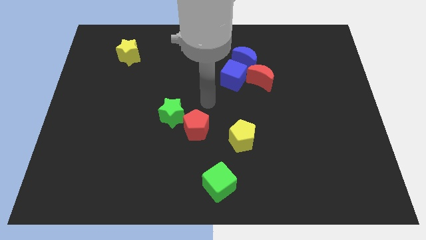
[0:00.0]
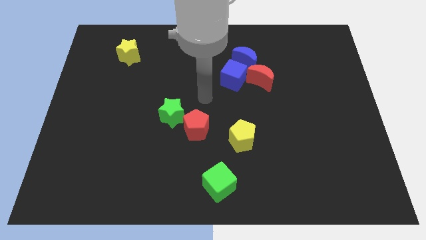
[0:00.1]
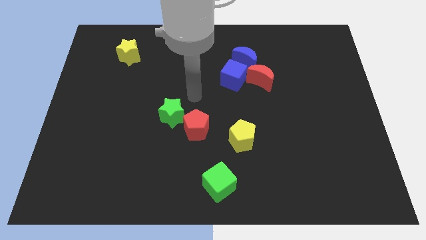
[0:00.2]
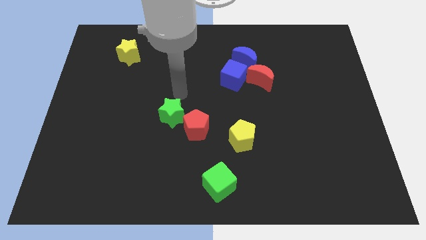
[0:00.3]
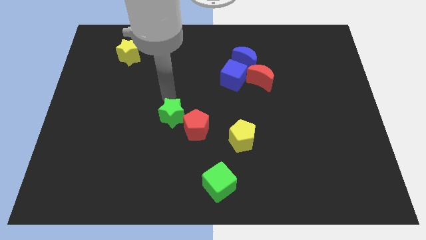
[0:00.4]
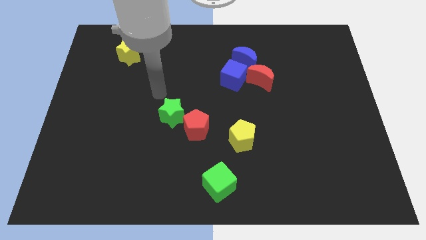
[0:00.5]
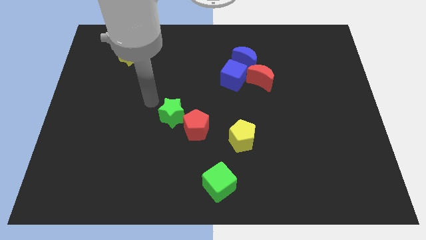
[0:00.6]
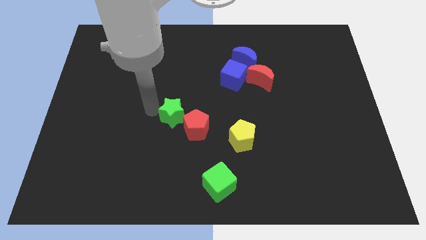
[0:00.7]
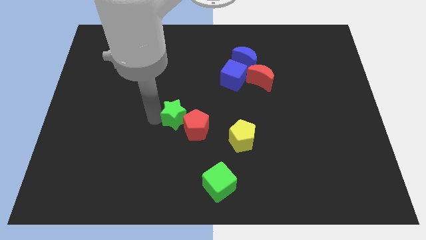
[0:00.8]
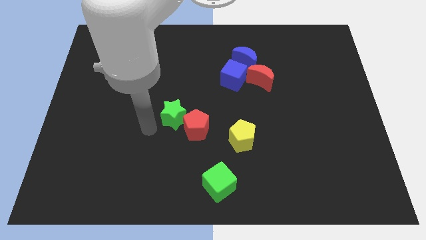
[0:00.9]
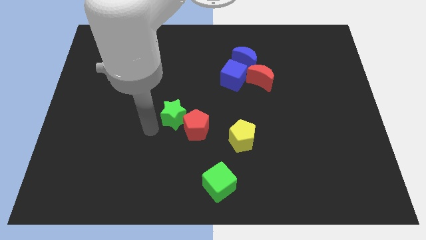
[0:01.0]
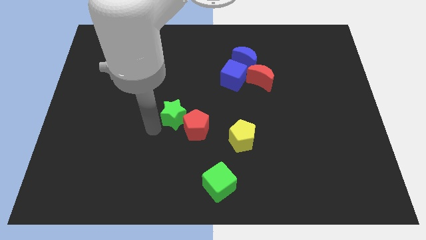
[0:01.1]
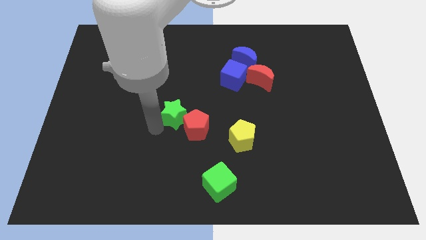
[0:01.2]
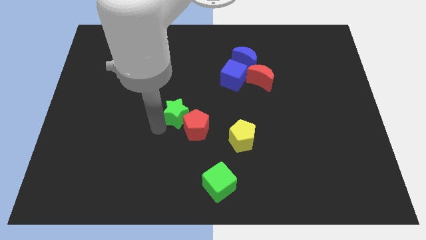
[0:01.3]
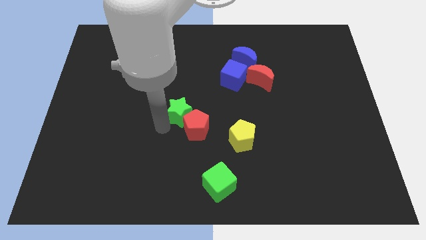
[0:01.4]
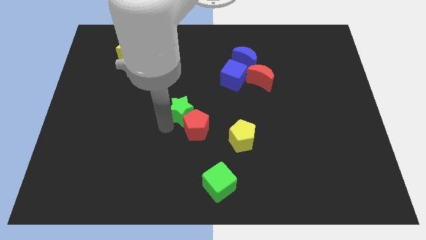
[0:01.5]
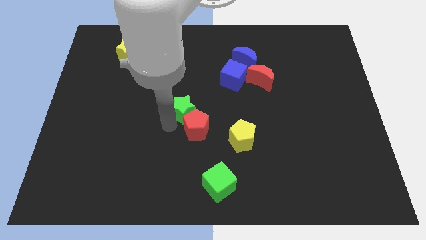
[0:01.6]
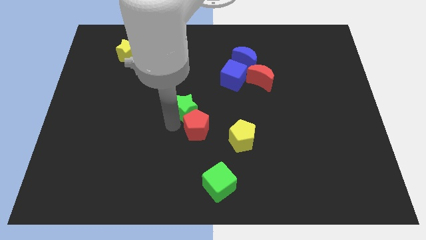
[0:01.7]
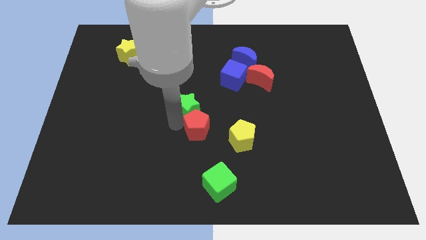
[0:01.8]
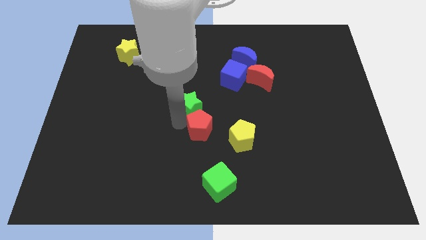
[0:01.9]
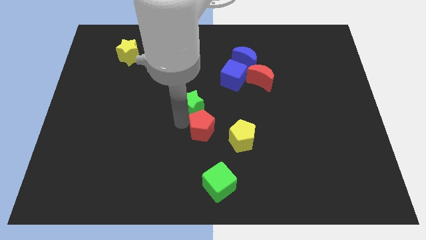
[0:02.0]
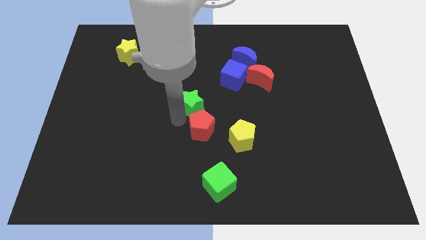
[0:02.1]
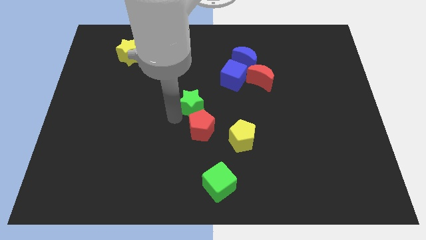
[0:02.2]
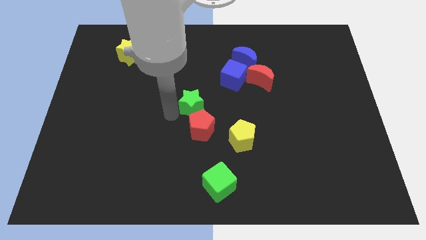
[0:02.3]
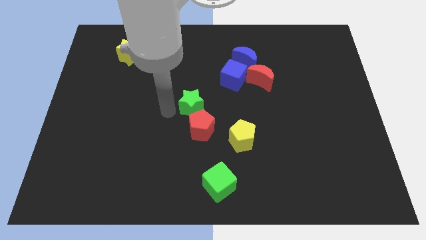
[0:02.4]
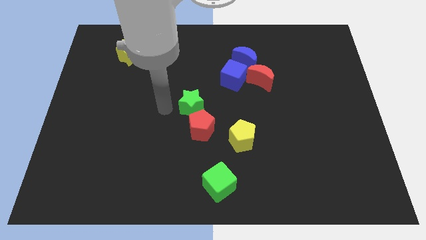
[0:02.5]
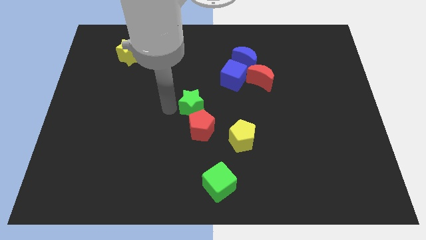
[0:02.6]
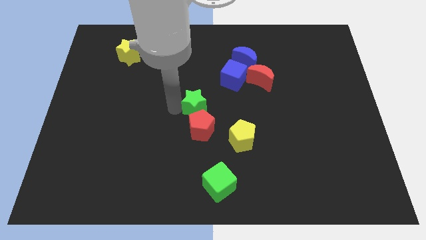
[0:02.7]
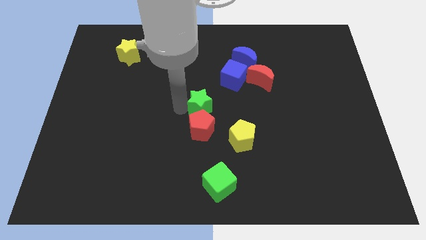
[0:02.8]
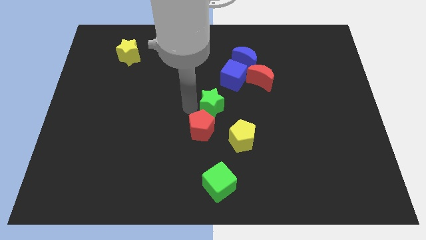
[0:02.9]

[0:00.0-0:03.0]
slightly slide the green star to the right

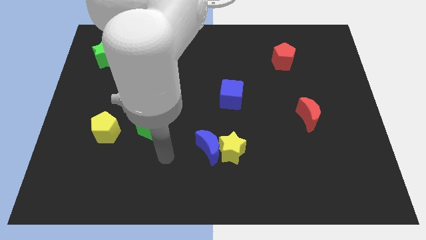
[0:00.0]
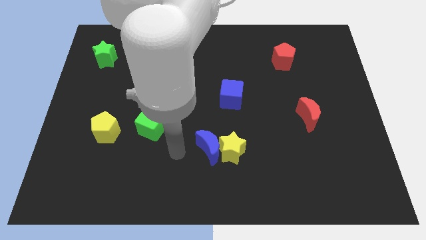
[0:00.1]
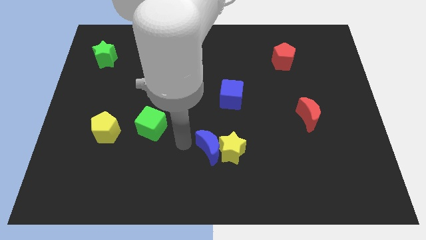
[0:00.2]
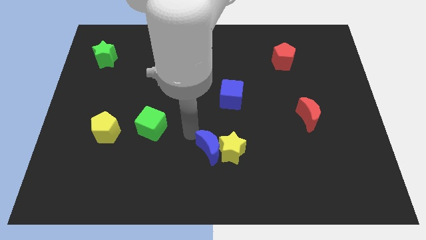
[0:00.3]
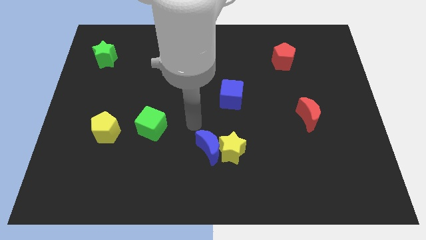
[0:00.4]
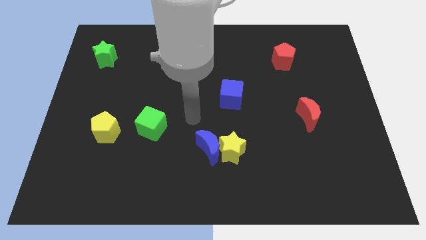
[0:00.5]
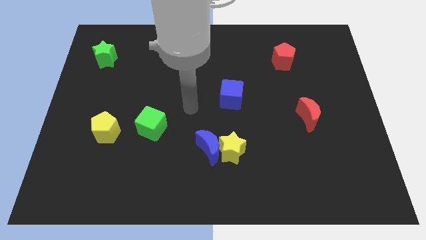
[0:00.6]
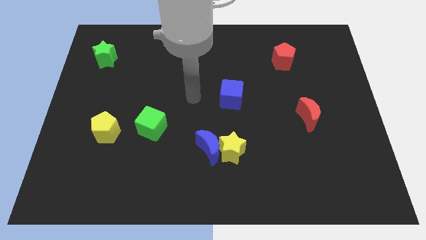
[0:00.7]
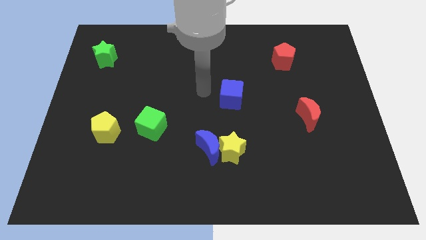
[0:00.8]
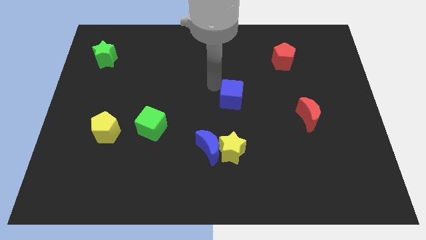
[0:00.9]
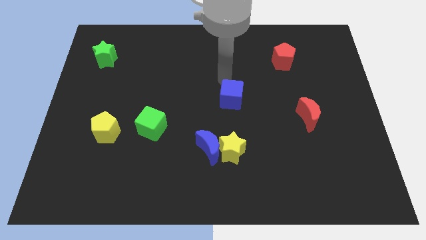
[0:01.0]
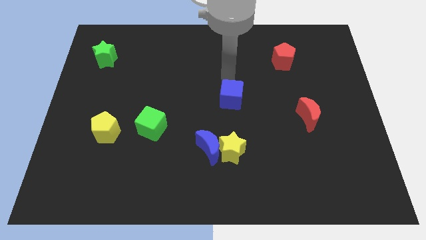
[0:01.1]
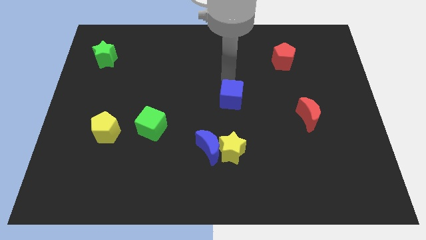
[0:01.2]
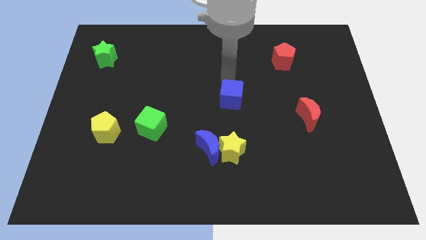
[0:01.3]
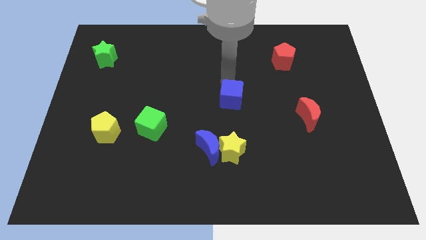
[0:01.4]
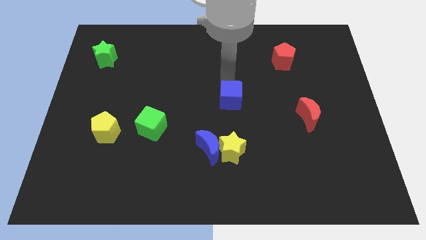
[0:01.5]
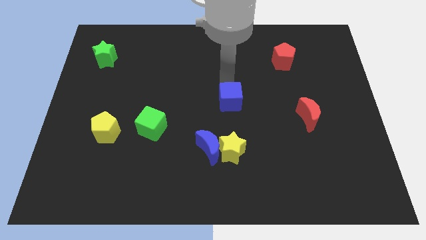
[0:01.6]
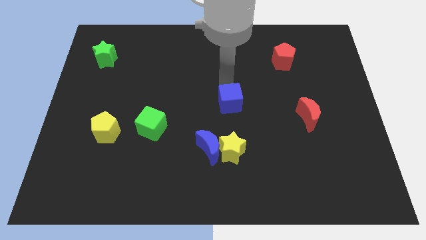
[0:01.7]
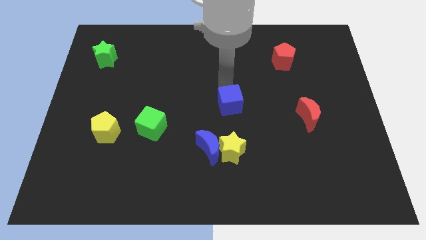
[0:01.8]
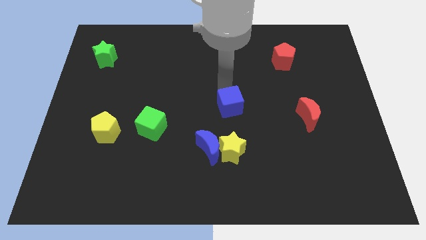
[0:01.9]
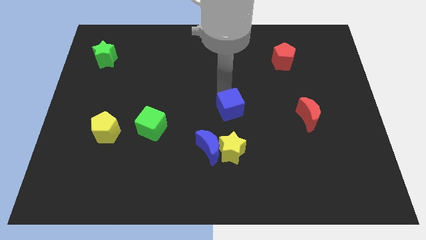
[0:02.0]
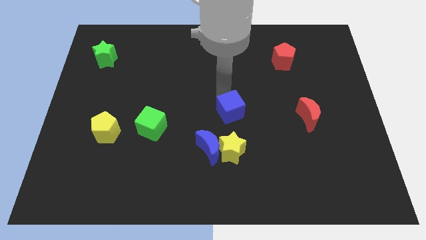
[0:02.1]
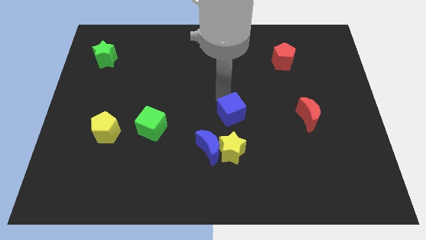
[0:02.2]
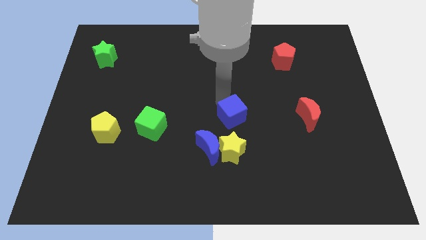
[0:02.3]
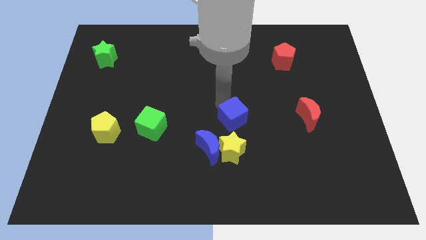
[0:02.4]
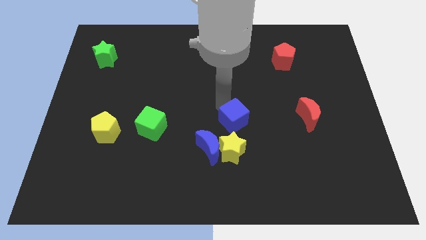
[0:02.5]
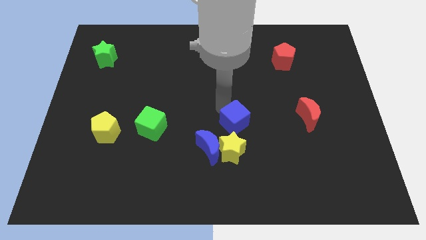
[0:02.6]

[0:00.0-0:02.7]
slide the blue cube a little down

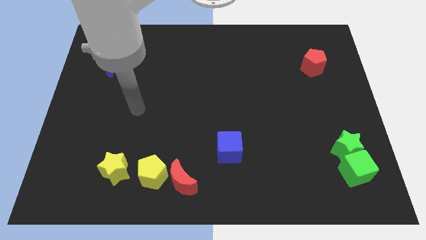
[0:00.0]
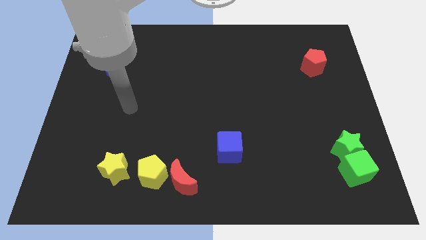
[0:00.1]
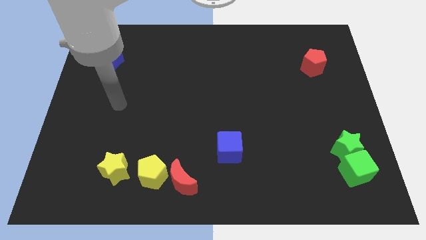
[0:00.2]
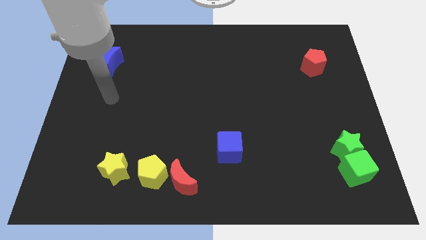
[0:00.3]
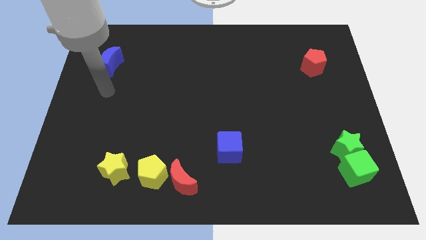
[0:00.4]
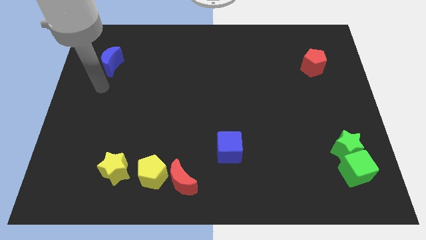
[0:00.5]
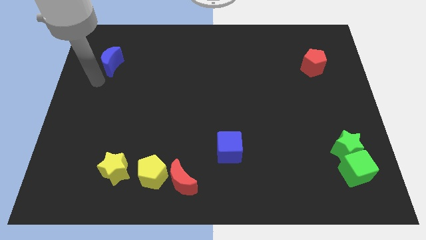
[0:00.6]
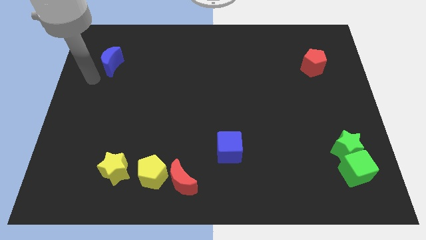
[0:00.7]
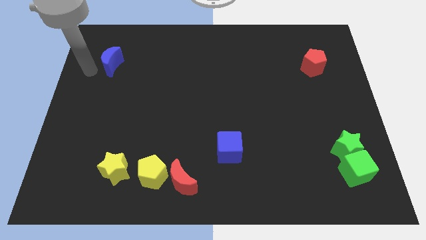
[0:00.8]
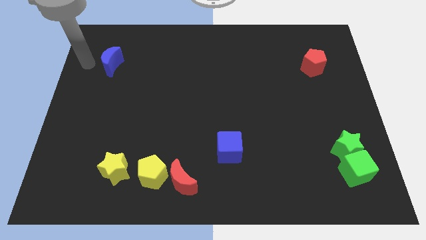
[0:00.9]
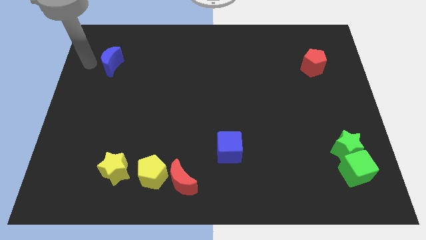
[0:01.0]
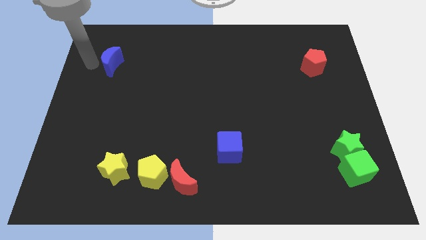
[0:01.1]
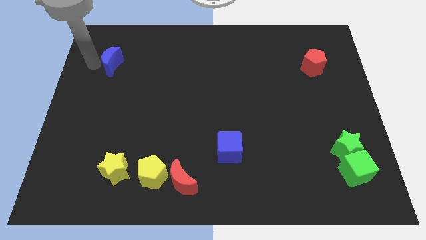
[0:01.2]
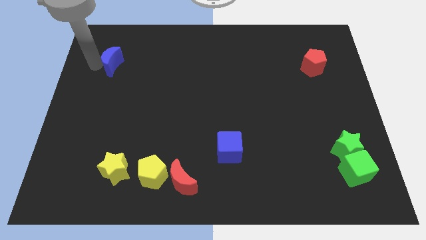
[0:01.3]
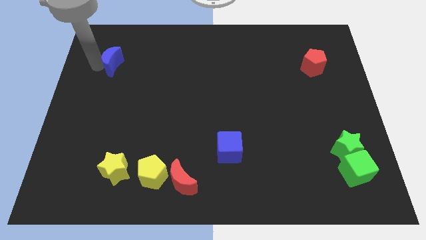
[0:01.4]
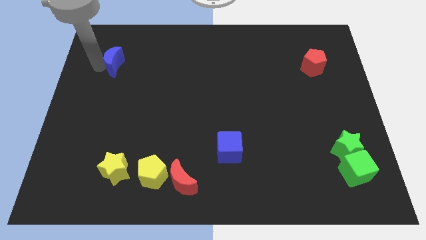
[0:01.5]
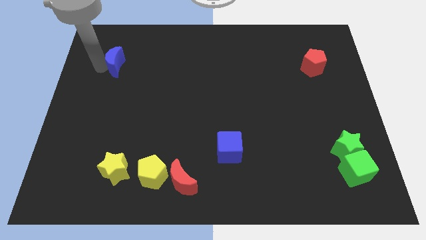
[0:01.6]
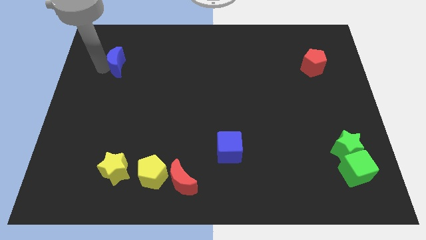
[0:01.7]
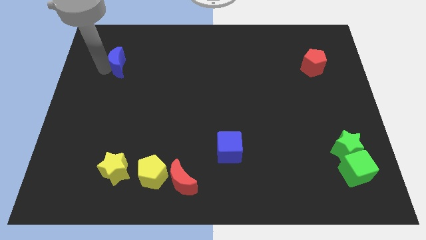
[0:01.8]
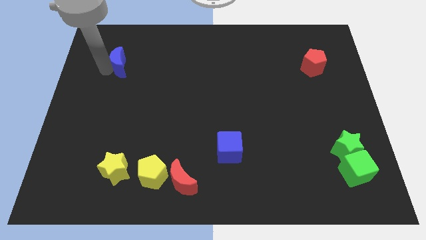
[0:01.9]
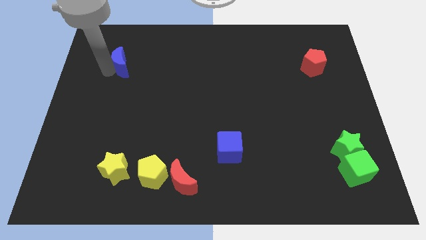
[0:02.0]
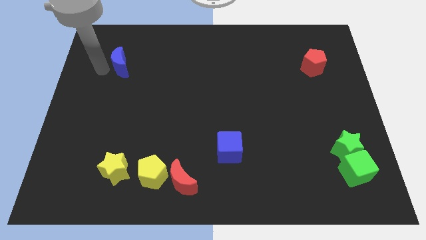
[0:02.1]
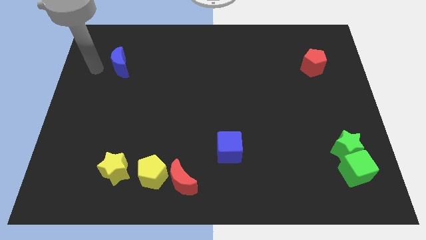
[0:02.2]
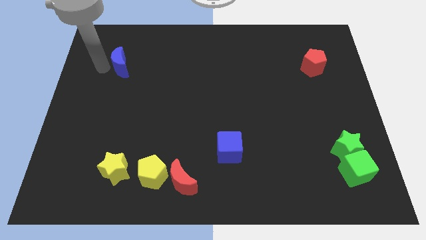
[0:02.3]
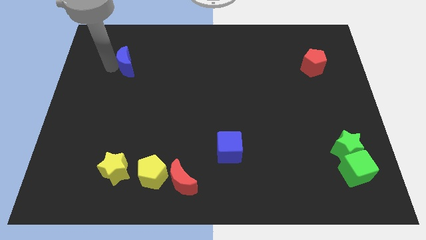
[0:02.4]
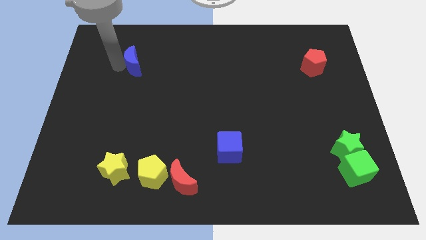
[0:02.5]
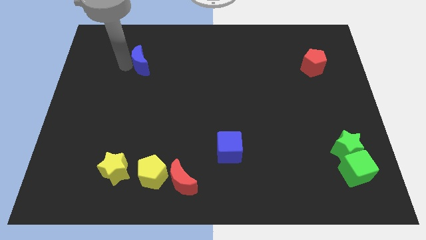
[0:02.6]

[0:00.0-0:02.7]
slightly move the blue moon to the right

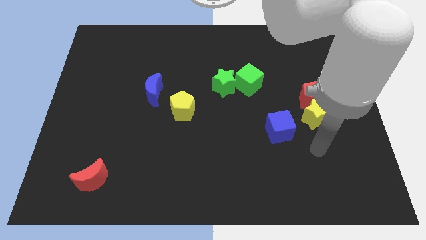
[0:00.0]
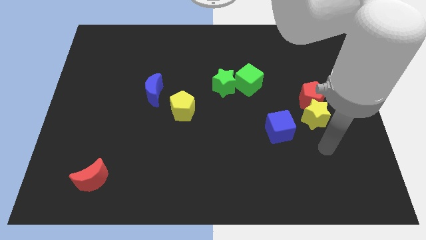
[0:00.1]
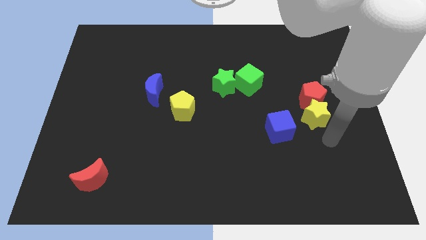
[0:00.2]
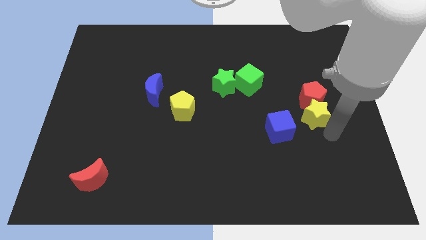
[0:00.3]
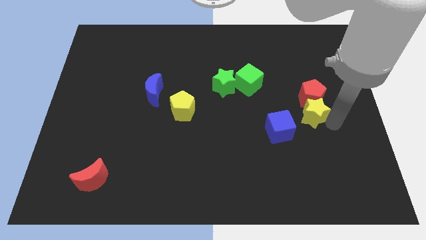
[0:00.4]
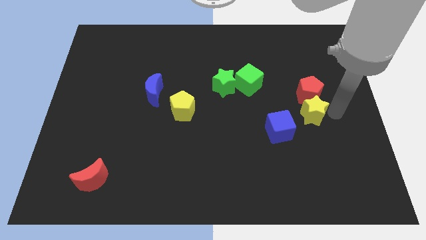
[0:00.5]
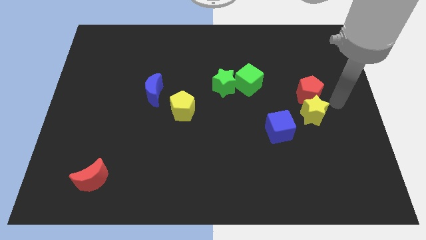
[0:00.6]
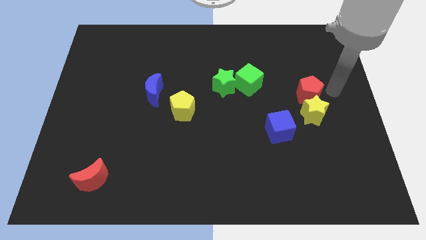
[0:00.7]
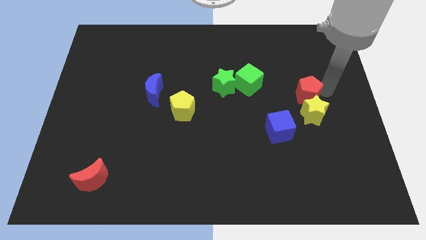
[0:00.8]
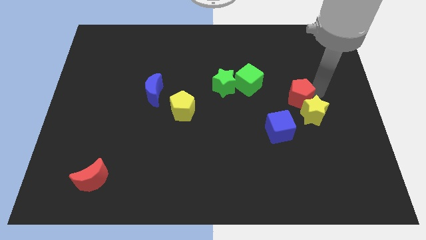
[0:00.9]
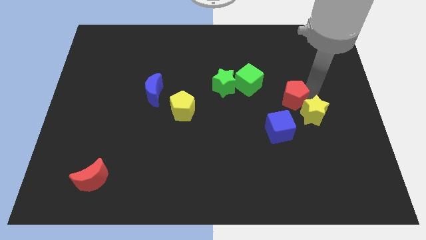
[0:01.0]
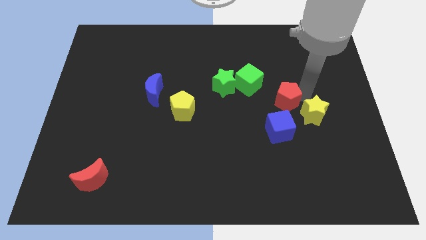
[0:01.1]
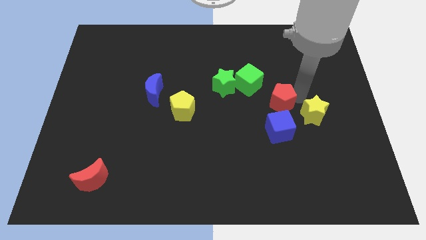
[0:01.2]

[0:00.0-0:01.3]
move the red pentagon a little bit left
